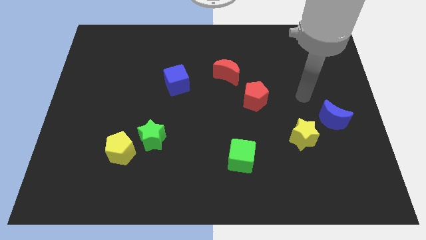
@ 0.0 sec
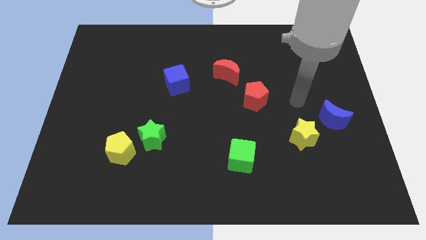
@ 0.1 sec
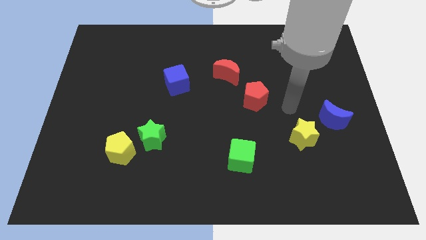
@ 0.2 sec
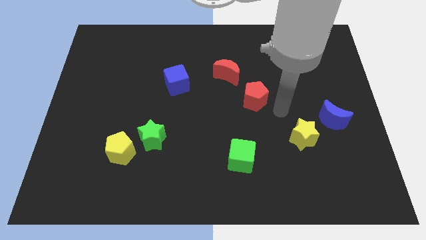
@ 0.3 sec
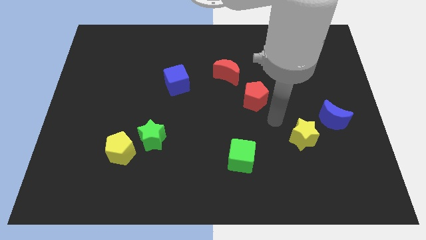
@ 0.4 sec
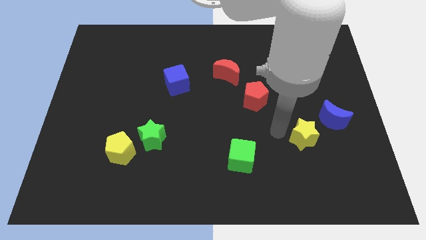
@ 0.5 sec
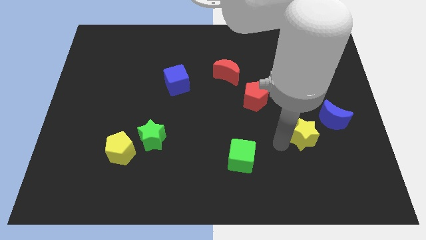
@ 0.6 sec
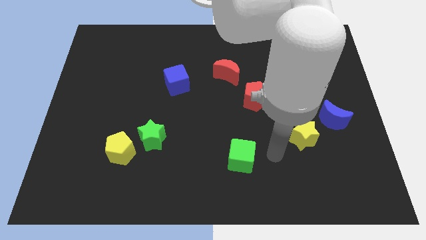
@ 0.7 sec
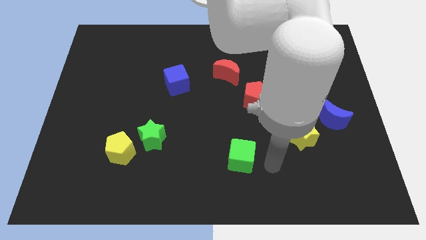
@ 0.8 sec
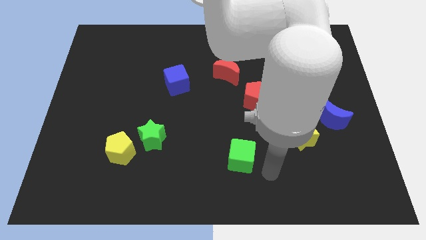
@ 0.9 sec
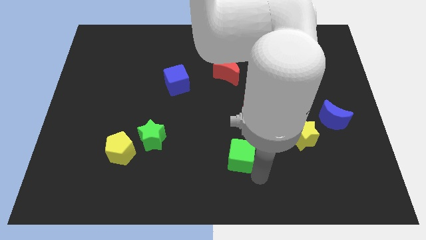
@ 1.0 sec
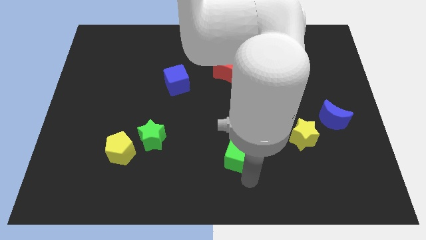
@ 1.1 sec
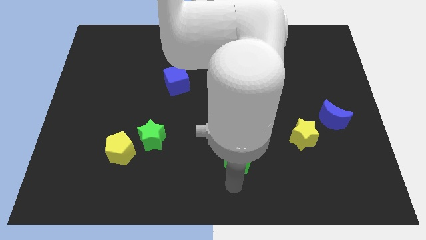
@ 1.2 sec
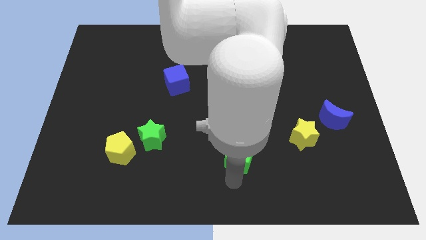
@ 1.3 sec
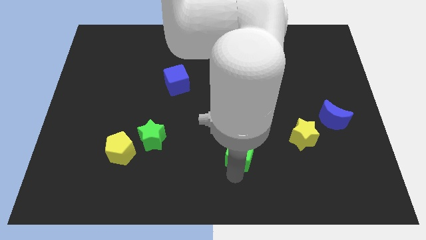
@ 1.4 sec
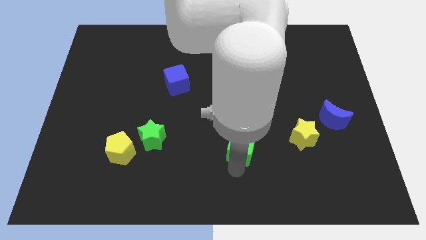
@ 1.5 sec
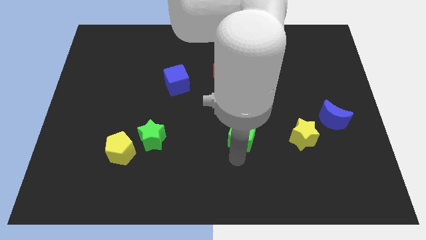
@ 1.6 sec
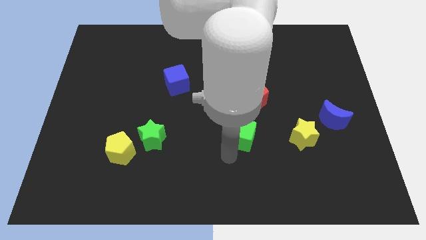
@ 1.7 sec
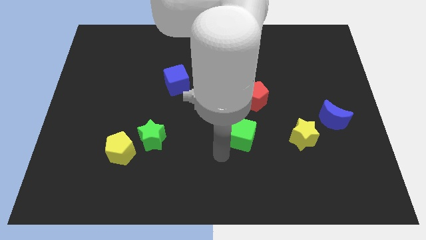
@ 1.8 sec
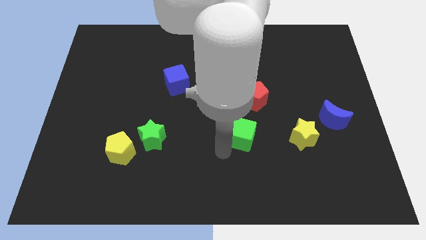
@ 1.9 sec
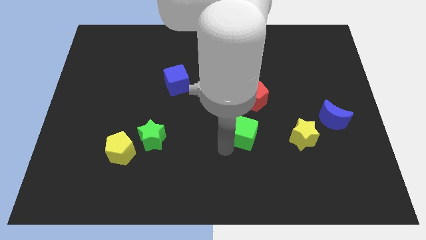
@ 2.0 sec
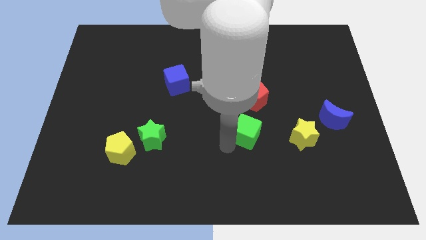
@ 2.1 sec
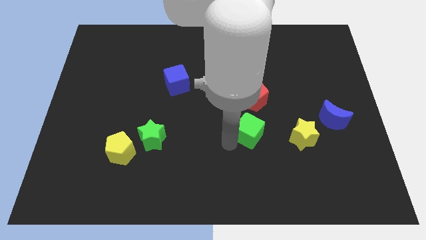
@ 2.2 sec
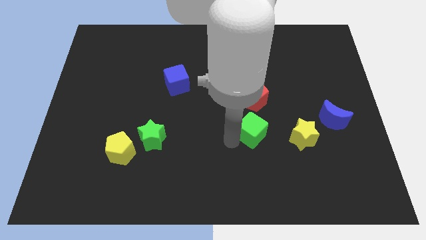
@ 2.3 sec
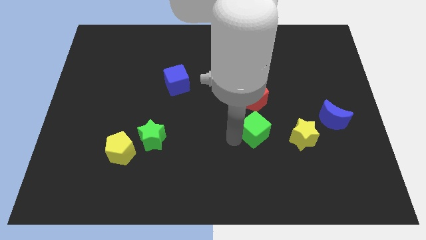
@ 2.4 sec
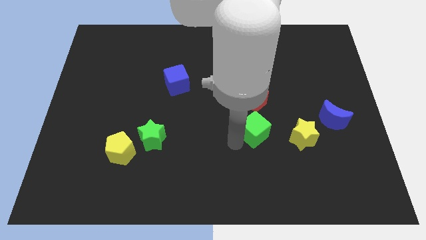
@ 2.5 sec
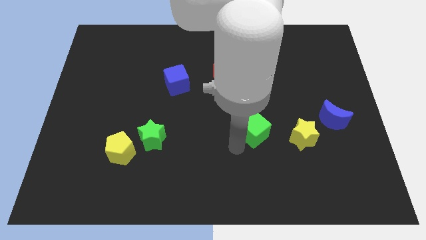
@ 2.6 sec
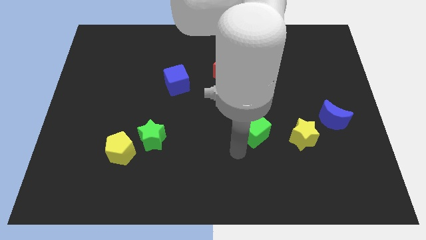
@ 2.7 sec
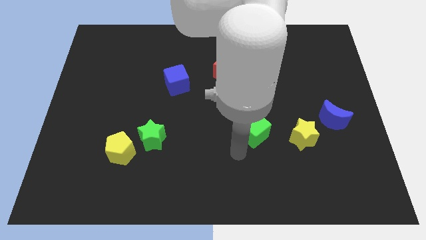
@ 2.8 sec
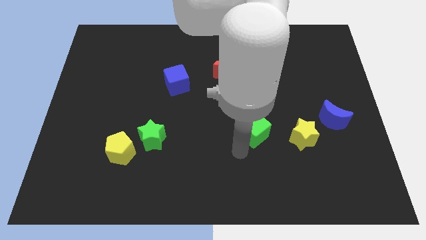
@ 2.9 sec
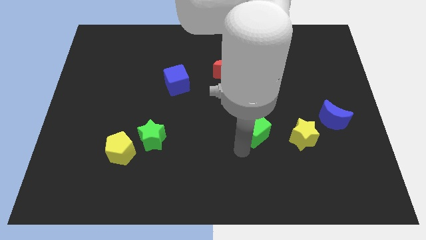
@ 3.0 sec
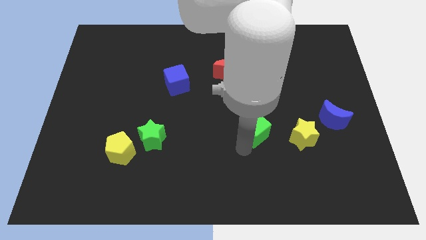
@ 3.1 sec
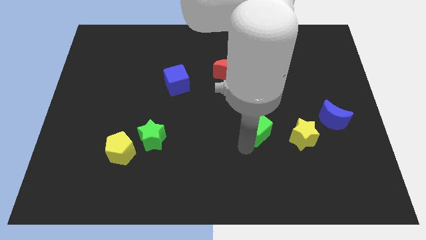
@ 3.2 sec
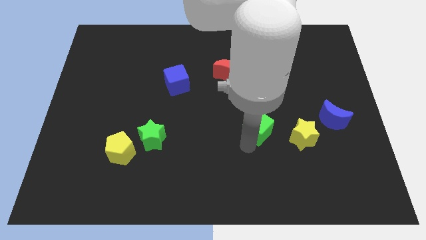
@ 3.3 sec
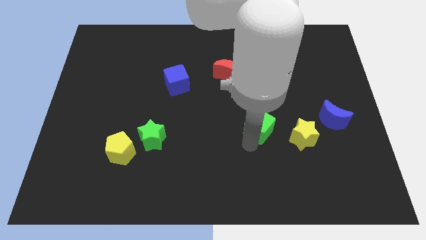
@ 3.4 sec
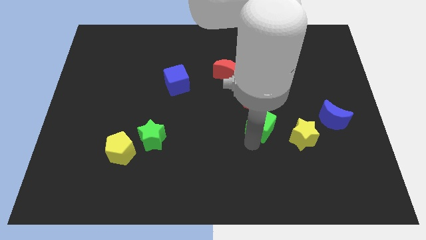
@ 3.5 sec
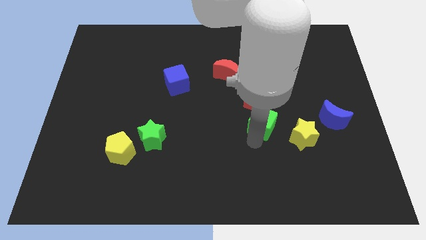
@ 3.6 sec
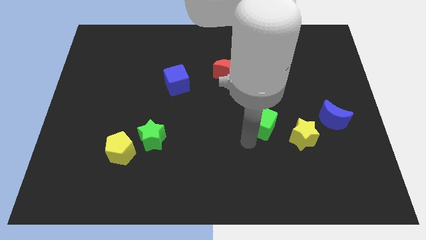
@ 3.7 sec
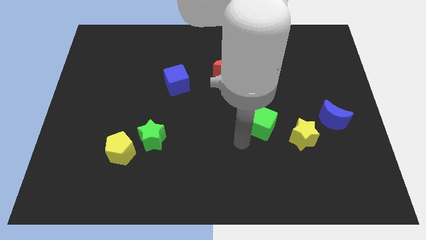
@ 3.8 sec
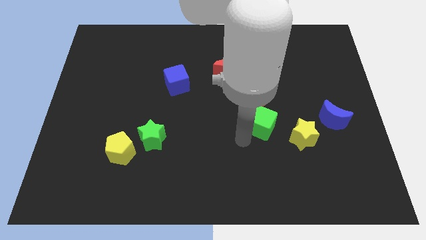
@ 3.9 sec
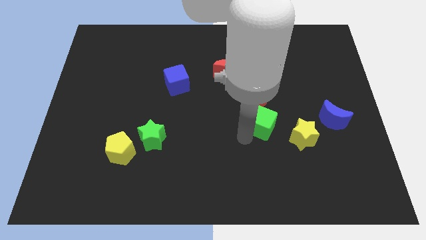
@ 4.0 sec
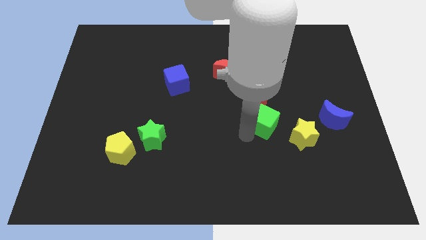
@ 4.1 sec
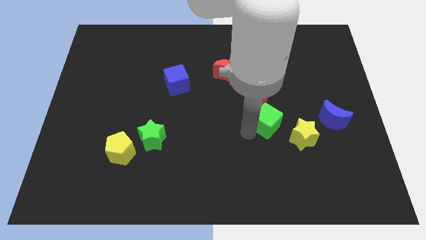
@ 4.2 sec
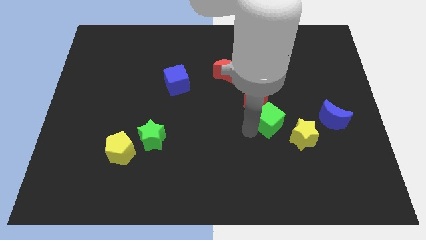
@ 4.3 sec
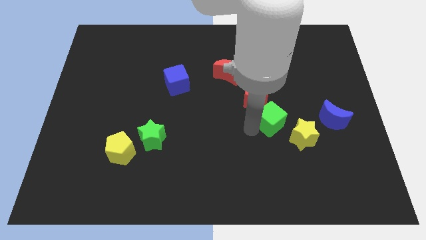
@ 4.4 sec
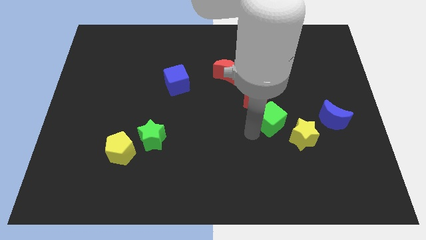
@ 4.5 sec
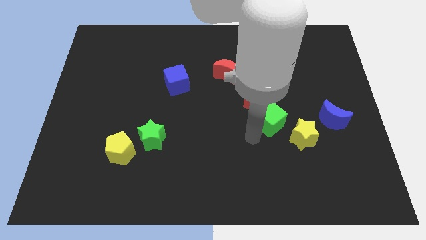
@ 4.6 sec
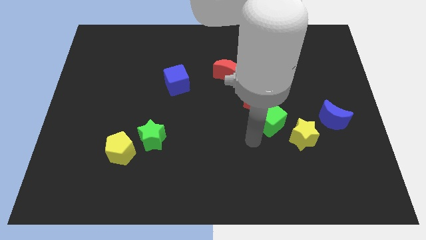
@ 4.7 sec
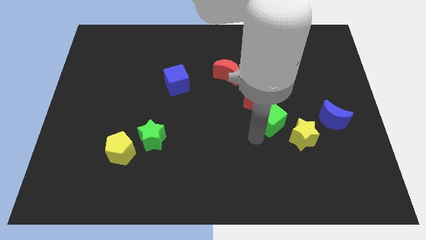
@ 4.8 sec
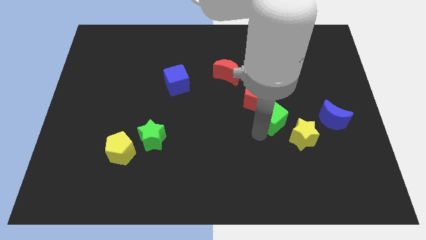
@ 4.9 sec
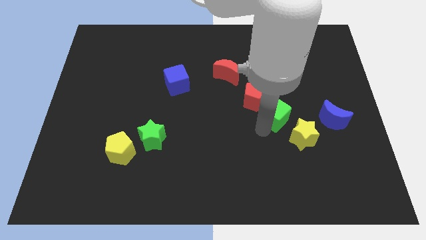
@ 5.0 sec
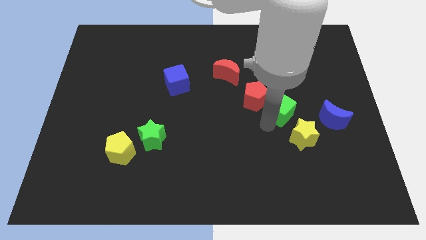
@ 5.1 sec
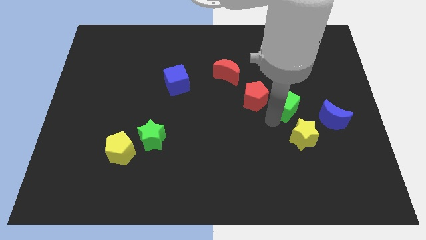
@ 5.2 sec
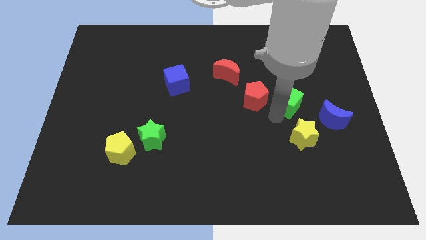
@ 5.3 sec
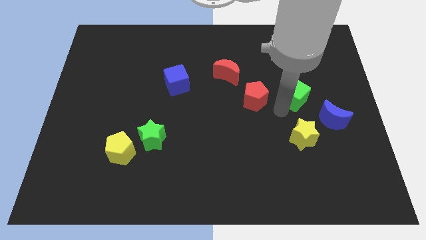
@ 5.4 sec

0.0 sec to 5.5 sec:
move the green cube up and then right

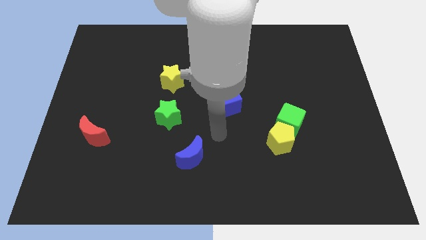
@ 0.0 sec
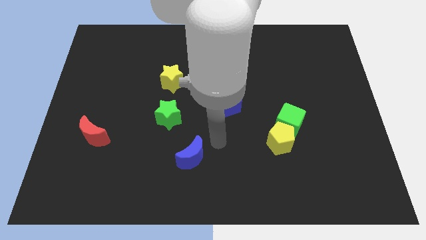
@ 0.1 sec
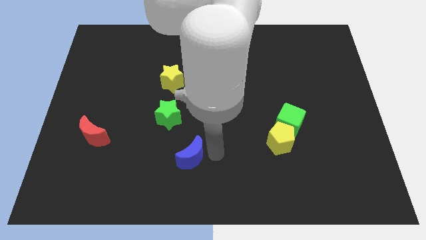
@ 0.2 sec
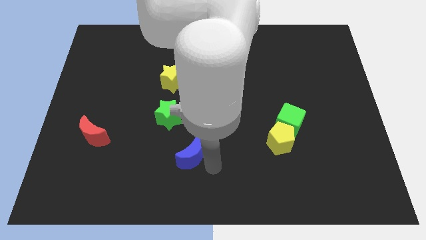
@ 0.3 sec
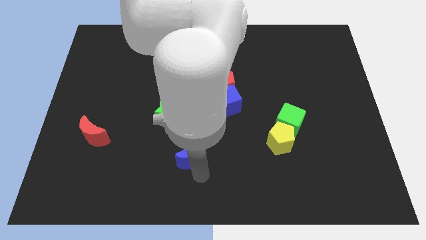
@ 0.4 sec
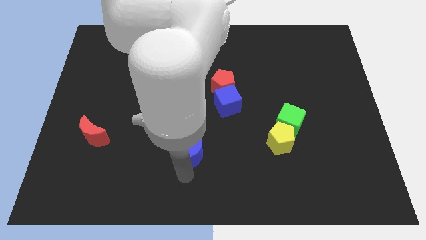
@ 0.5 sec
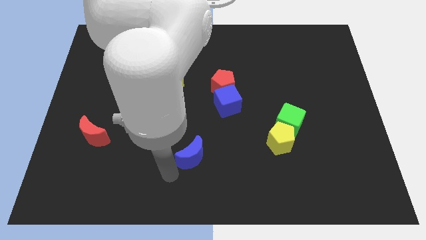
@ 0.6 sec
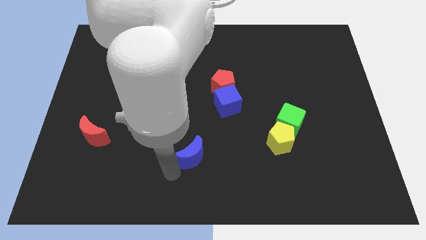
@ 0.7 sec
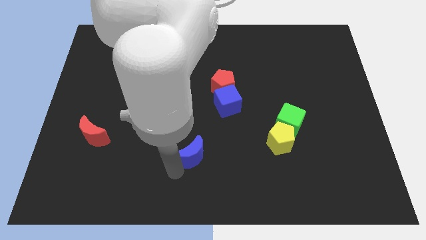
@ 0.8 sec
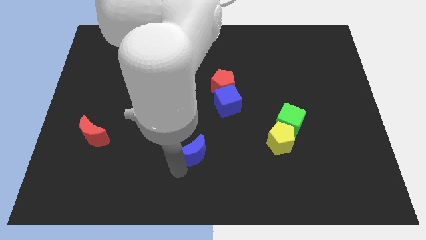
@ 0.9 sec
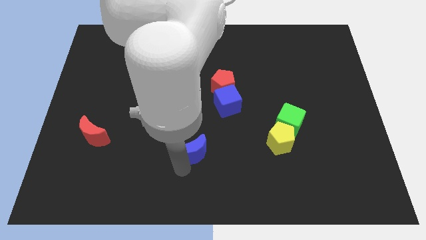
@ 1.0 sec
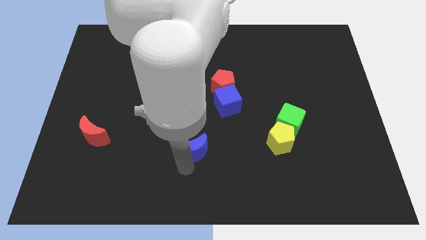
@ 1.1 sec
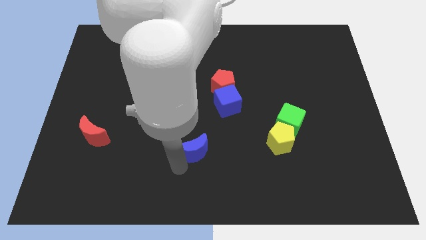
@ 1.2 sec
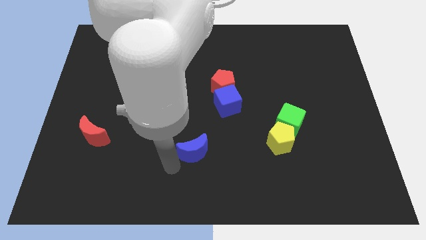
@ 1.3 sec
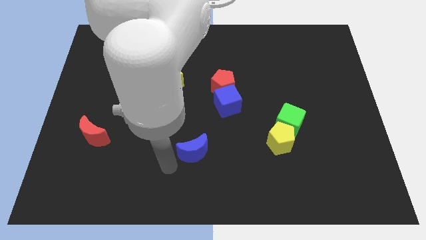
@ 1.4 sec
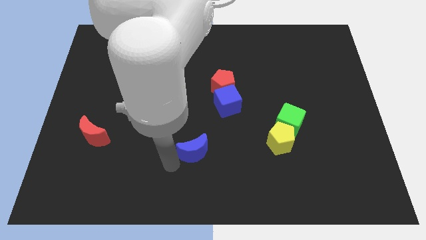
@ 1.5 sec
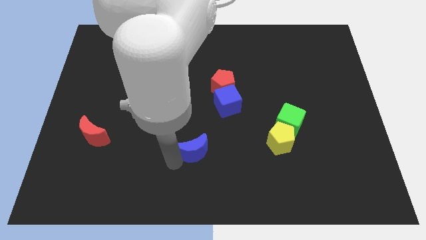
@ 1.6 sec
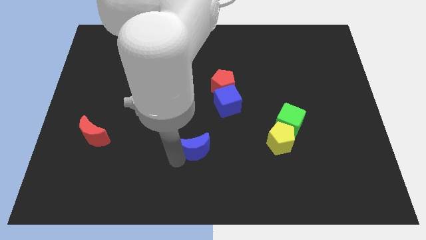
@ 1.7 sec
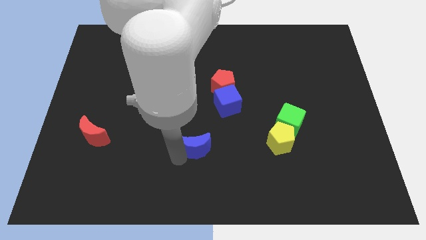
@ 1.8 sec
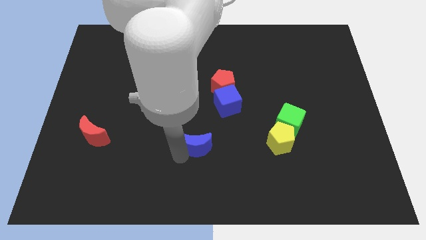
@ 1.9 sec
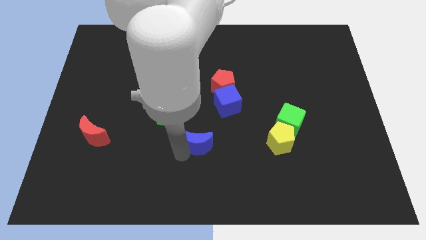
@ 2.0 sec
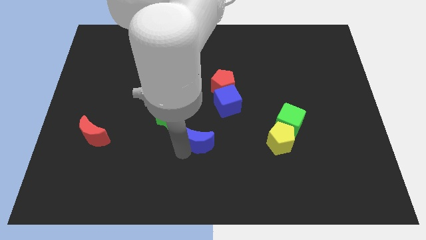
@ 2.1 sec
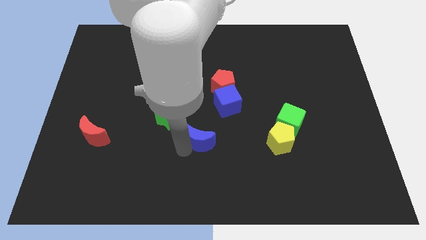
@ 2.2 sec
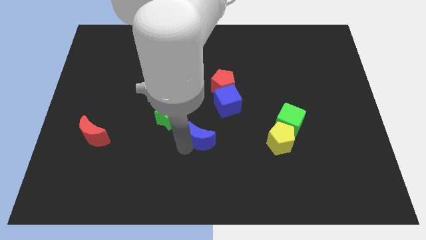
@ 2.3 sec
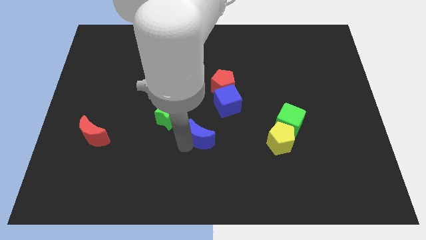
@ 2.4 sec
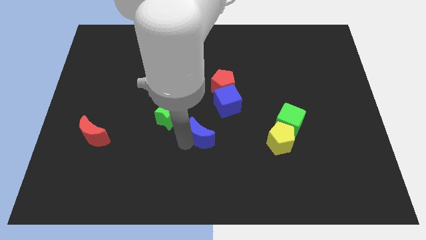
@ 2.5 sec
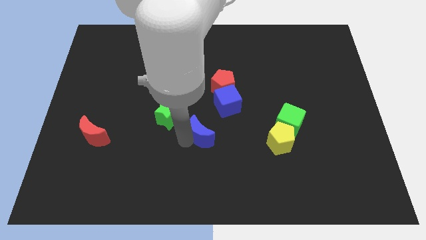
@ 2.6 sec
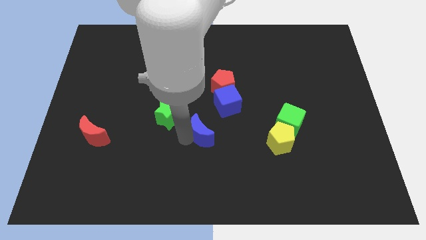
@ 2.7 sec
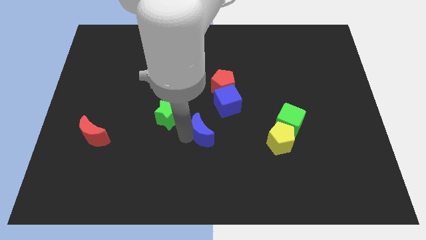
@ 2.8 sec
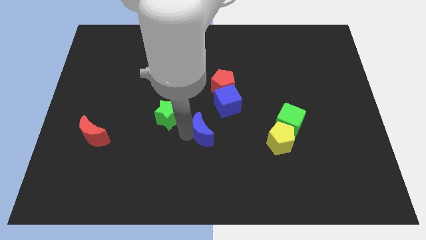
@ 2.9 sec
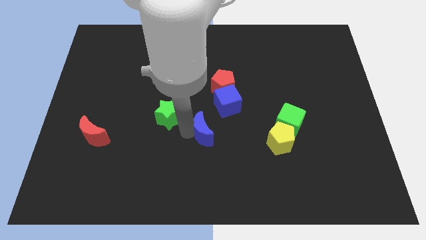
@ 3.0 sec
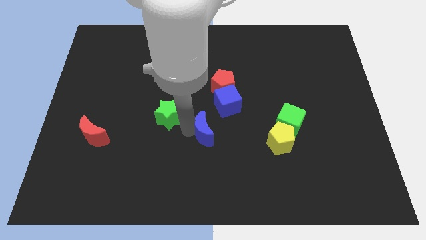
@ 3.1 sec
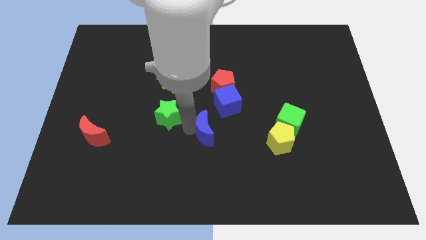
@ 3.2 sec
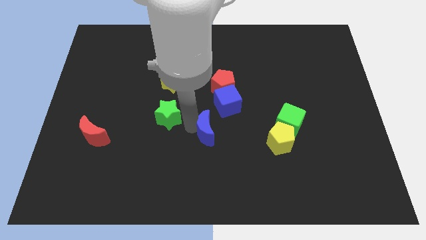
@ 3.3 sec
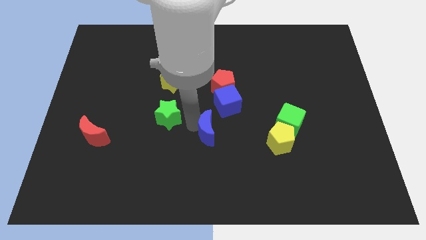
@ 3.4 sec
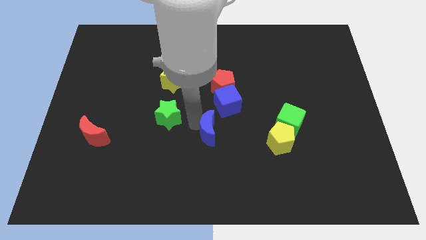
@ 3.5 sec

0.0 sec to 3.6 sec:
push the blue moon a little bit diagonally upwards and right
